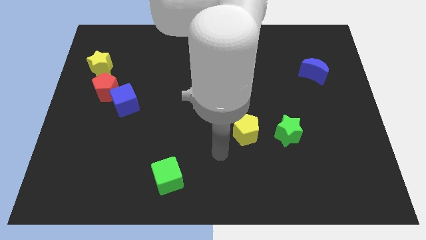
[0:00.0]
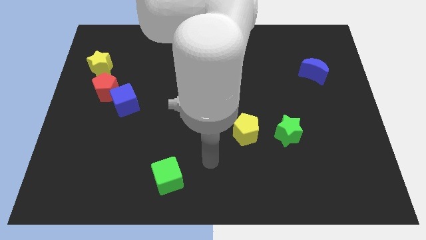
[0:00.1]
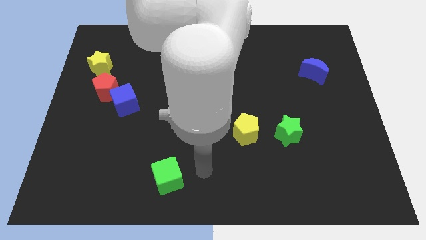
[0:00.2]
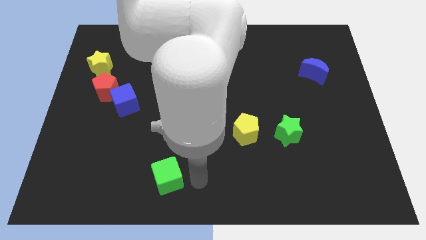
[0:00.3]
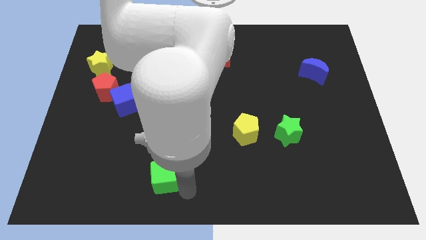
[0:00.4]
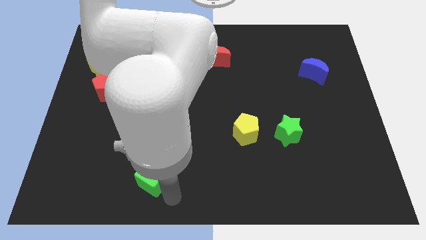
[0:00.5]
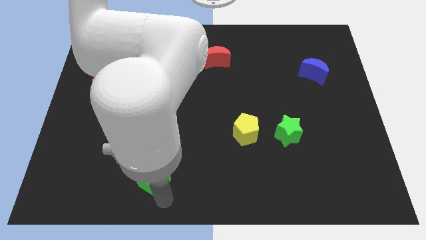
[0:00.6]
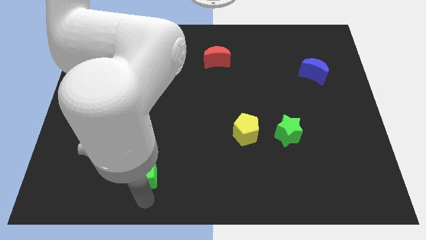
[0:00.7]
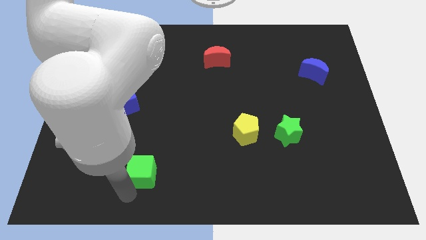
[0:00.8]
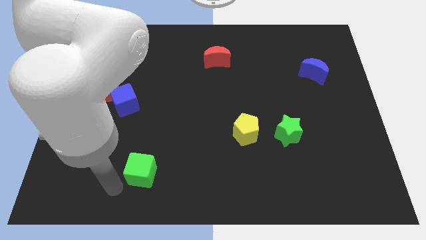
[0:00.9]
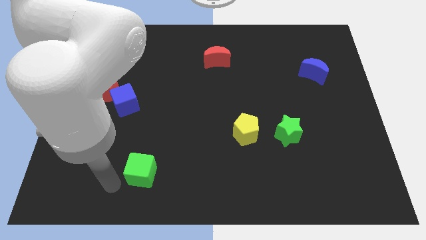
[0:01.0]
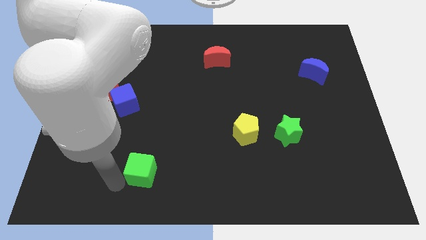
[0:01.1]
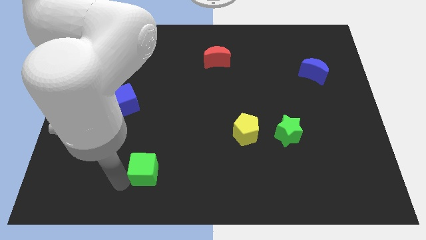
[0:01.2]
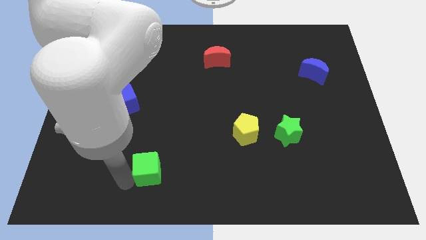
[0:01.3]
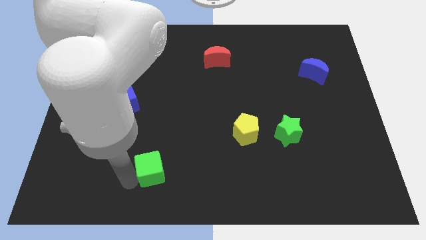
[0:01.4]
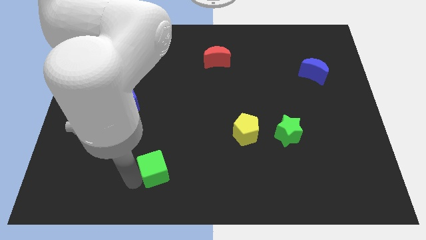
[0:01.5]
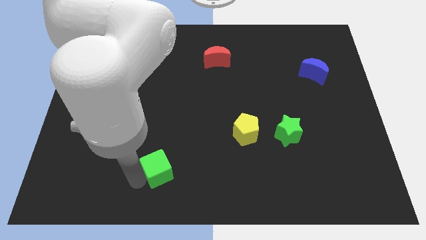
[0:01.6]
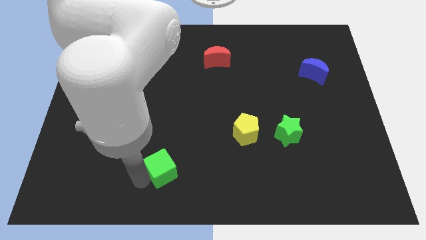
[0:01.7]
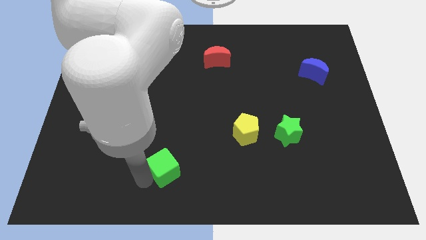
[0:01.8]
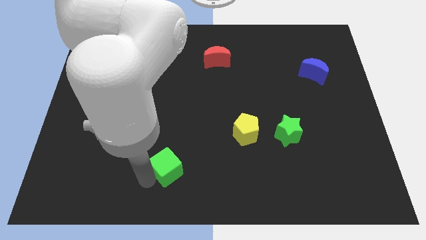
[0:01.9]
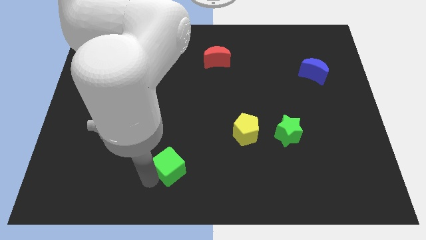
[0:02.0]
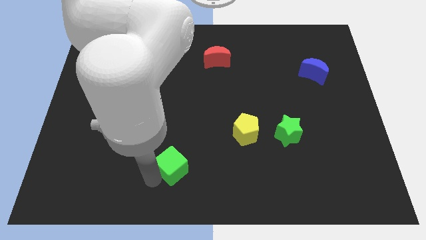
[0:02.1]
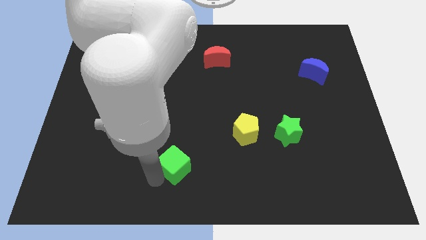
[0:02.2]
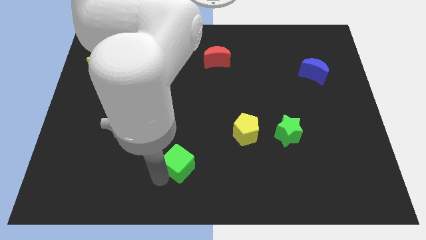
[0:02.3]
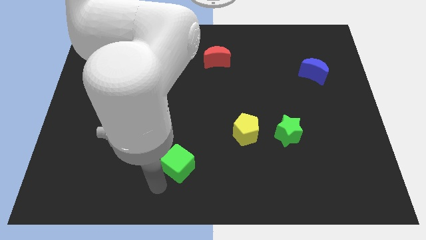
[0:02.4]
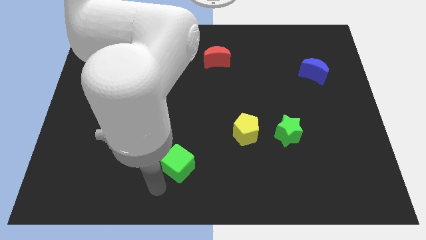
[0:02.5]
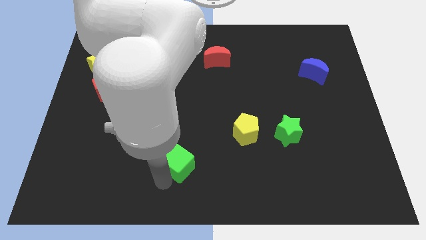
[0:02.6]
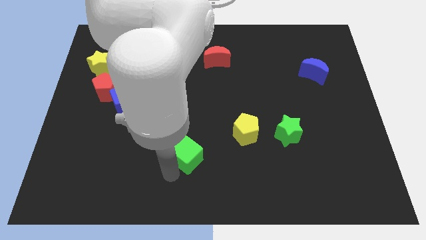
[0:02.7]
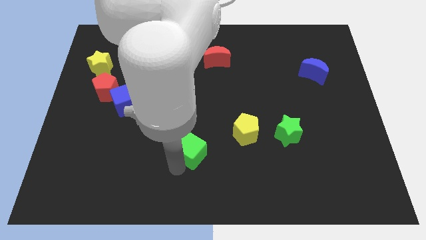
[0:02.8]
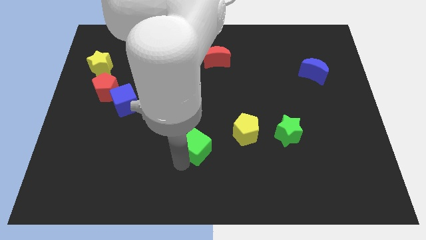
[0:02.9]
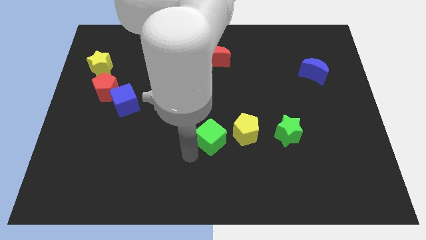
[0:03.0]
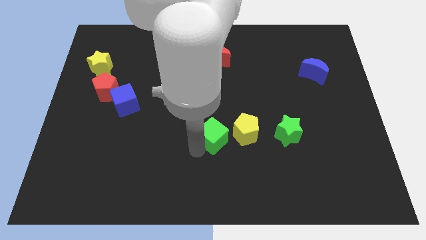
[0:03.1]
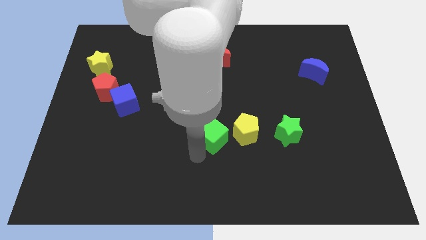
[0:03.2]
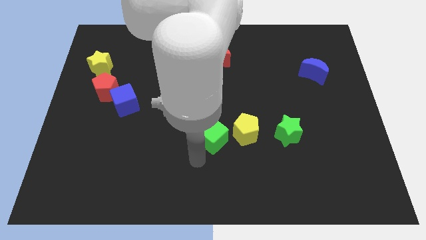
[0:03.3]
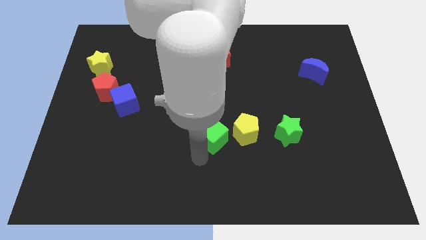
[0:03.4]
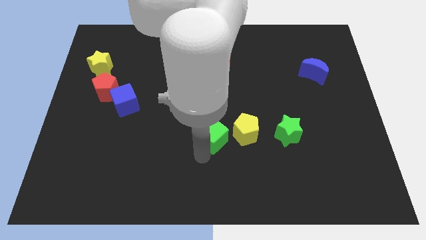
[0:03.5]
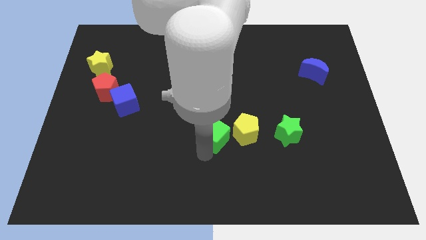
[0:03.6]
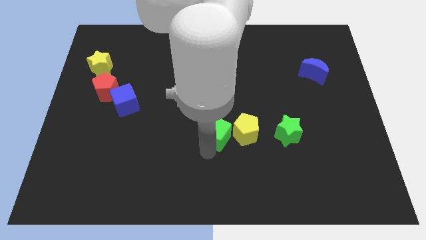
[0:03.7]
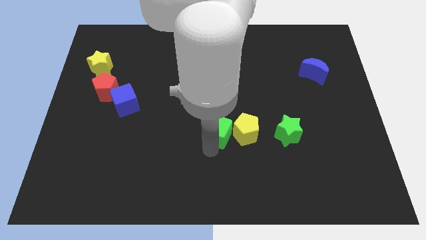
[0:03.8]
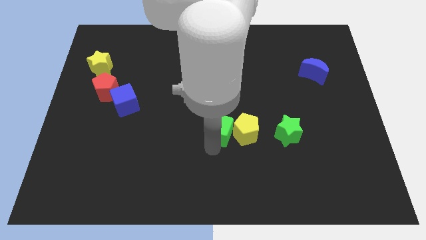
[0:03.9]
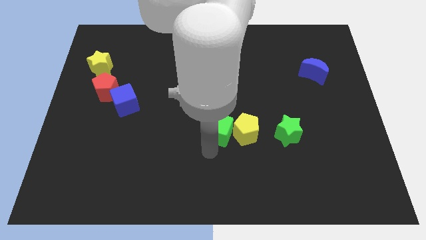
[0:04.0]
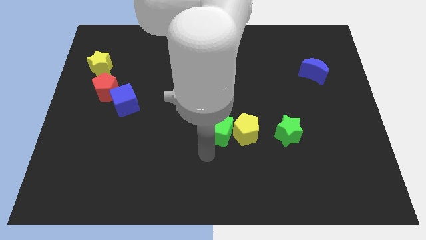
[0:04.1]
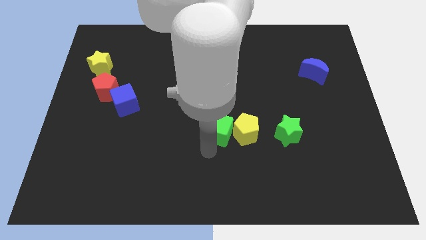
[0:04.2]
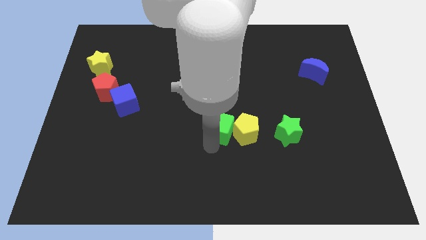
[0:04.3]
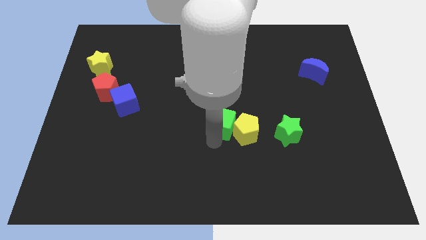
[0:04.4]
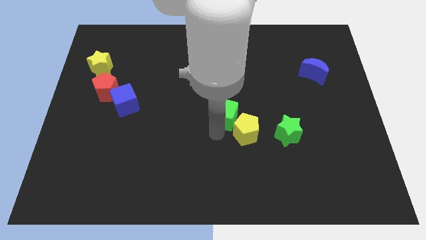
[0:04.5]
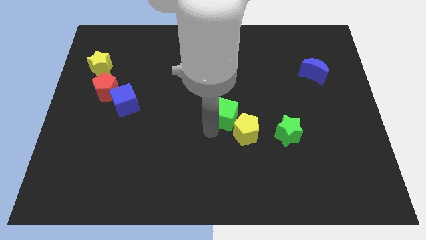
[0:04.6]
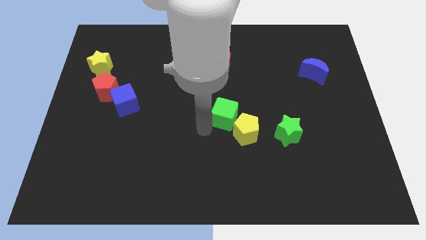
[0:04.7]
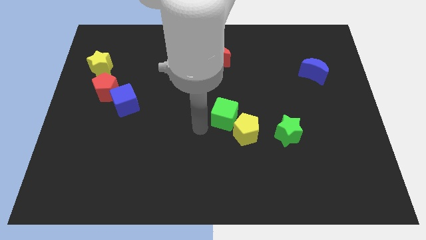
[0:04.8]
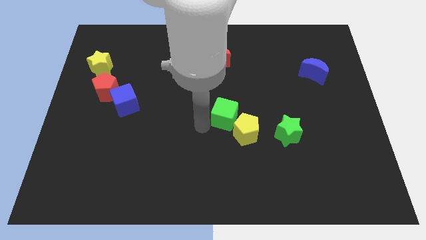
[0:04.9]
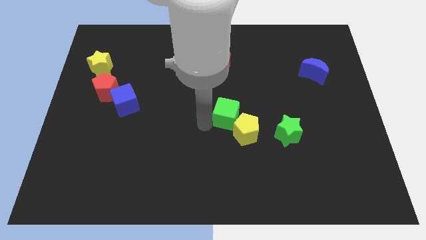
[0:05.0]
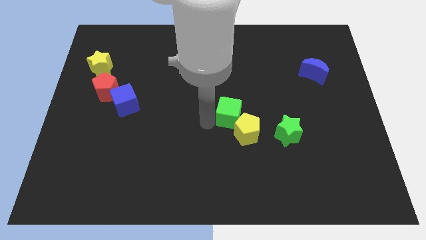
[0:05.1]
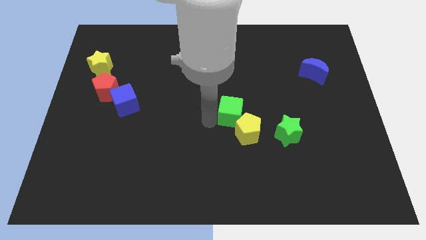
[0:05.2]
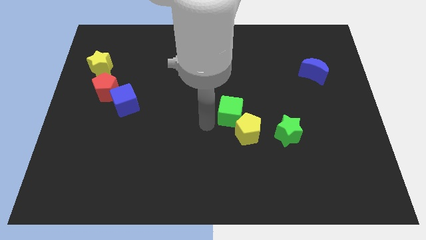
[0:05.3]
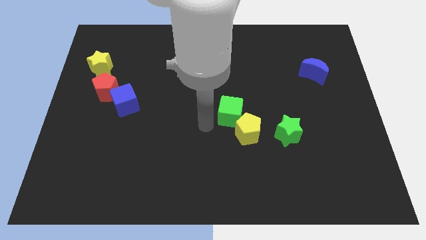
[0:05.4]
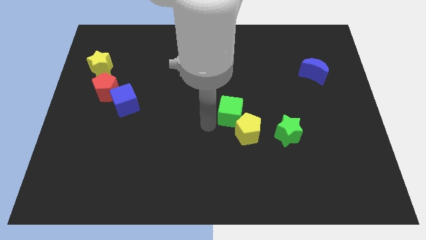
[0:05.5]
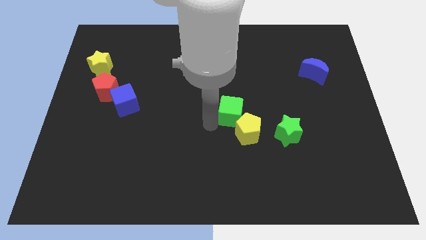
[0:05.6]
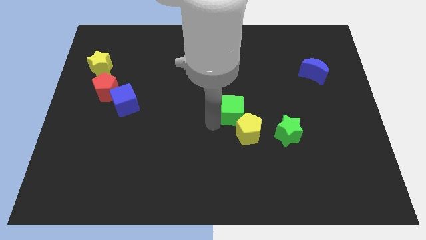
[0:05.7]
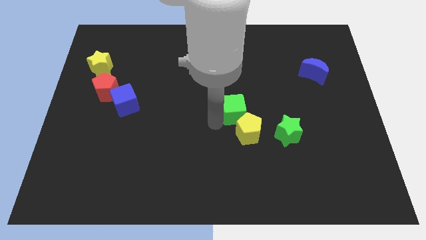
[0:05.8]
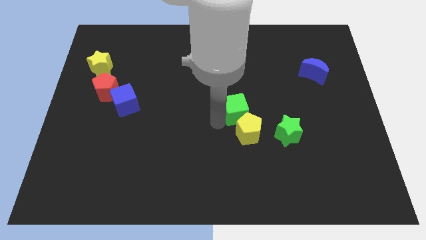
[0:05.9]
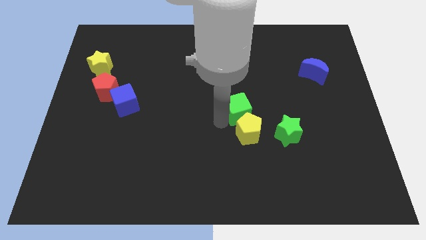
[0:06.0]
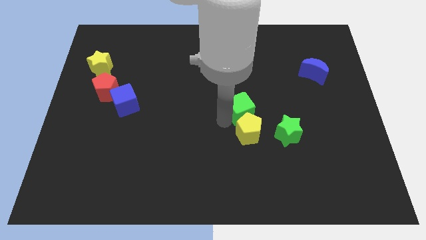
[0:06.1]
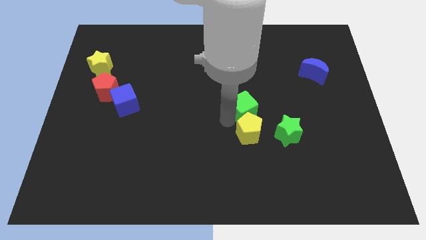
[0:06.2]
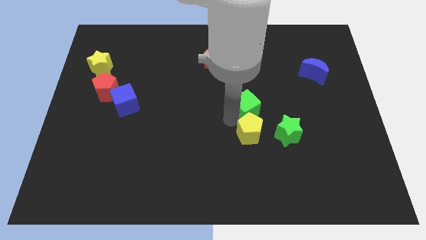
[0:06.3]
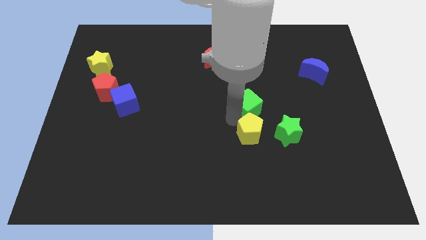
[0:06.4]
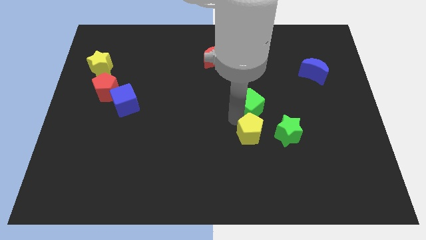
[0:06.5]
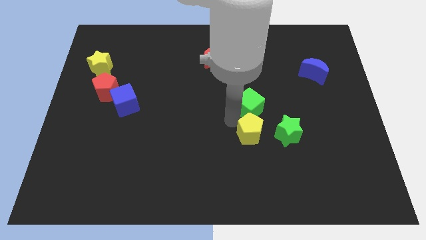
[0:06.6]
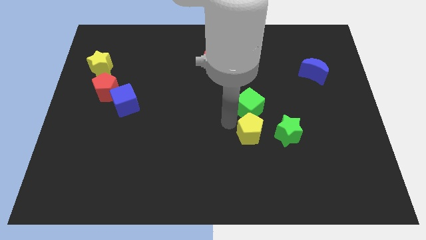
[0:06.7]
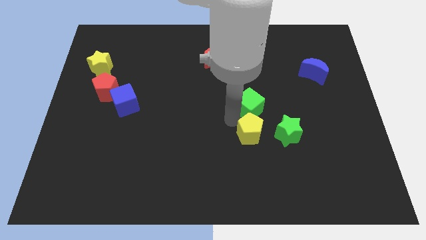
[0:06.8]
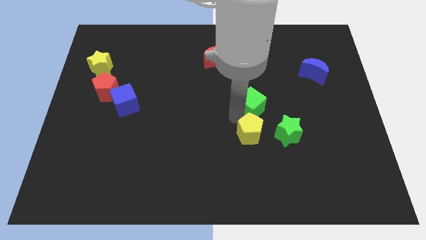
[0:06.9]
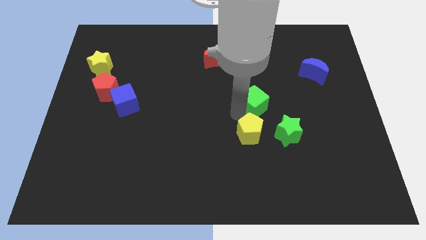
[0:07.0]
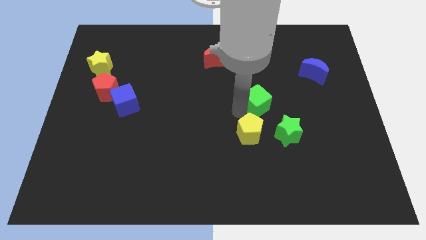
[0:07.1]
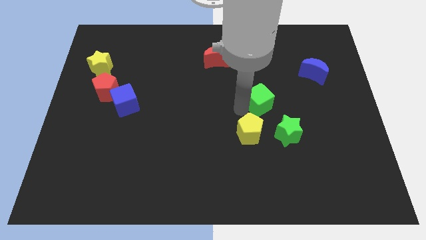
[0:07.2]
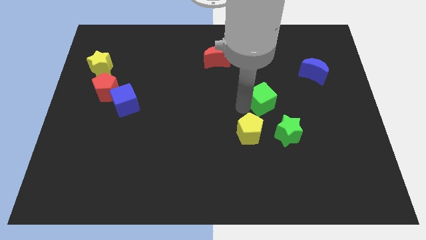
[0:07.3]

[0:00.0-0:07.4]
push the green cube to the top side of the green star
